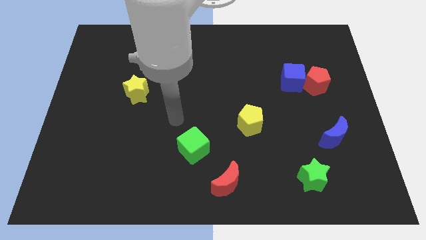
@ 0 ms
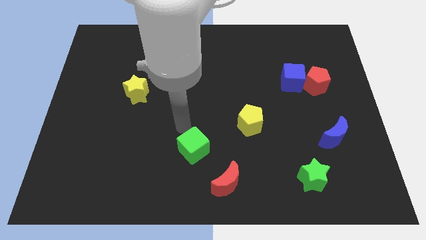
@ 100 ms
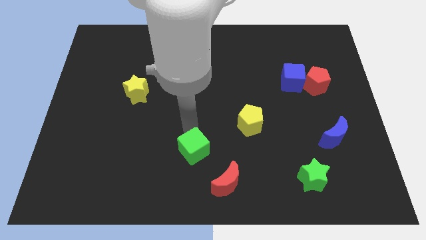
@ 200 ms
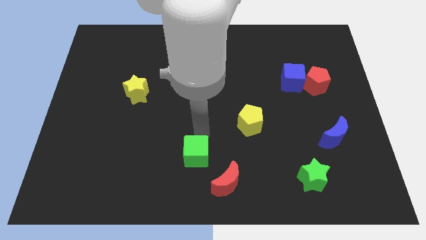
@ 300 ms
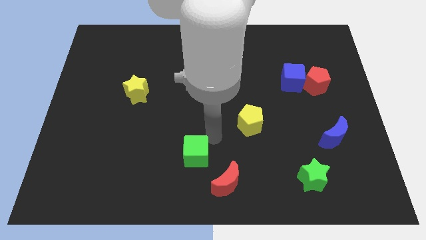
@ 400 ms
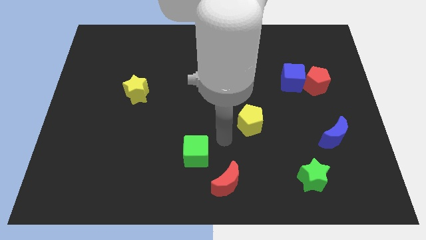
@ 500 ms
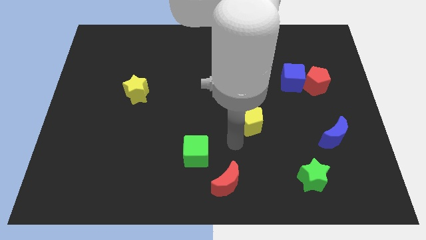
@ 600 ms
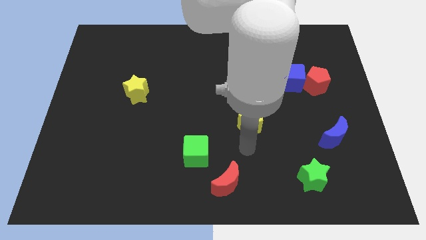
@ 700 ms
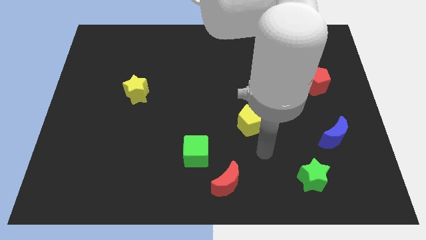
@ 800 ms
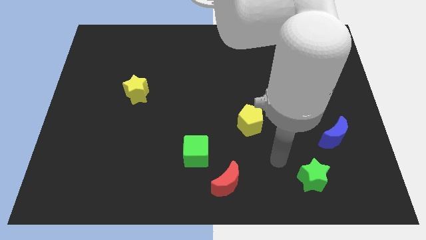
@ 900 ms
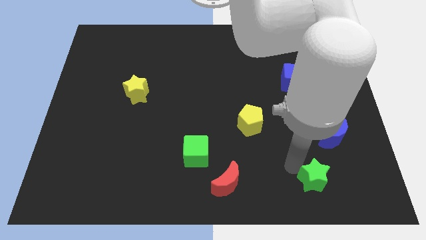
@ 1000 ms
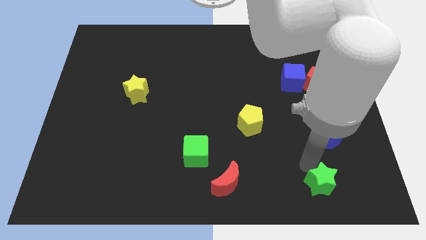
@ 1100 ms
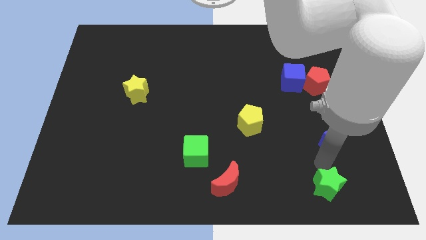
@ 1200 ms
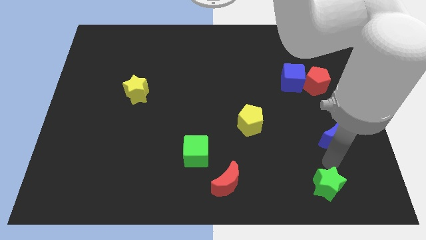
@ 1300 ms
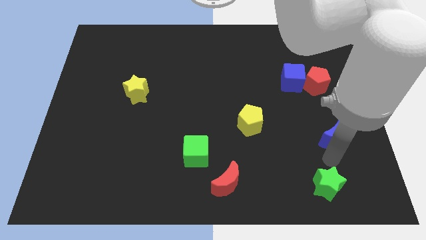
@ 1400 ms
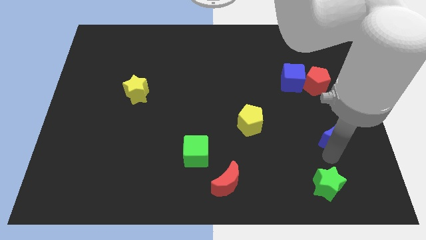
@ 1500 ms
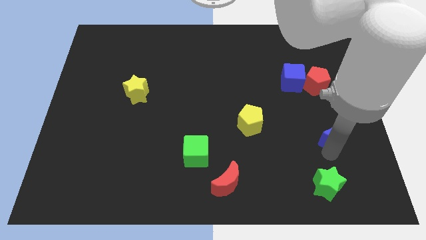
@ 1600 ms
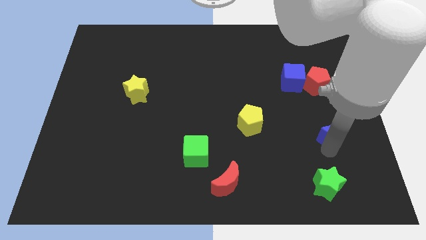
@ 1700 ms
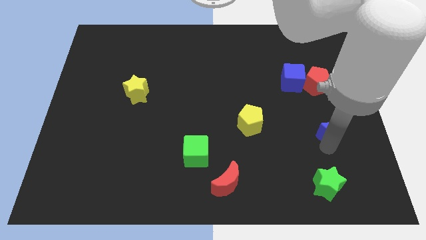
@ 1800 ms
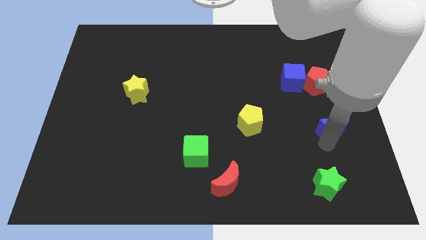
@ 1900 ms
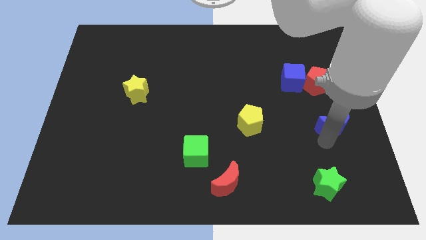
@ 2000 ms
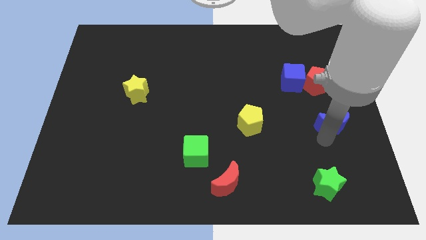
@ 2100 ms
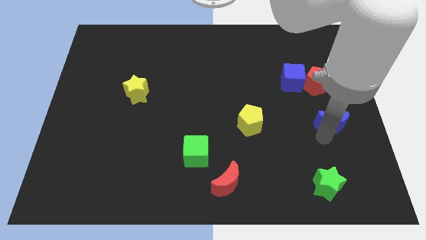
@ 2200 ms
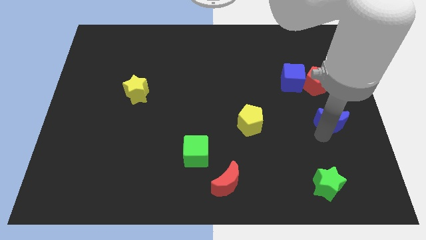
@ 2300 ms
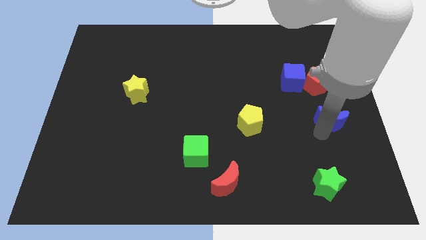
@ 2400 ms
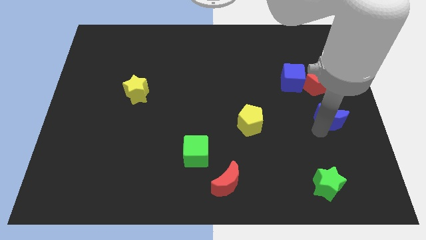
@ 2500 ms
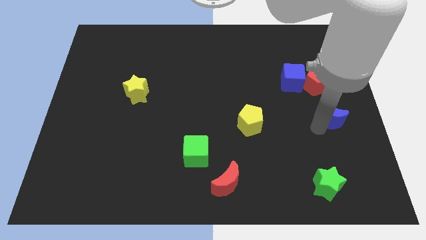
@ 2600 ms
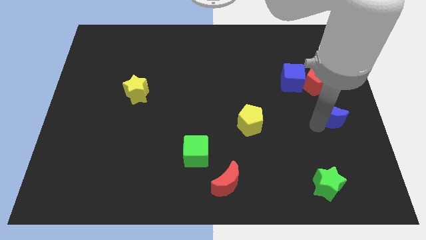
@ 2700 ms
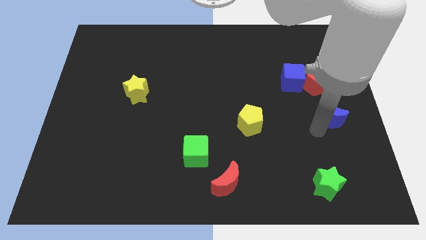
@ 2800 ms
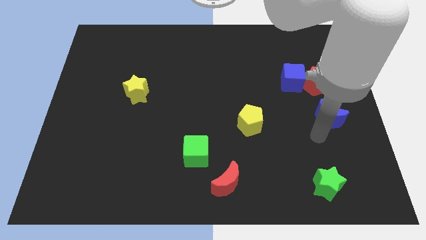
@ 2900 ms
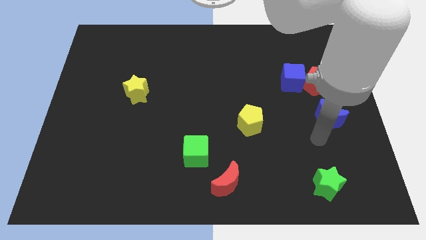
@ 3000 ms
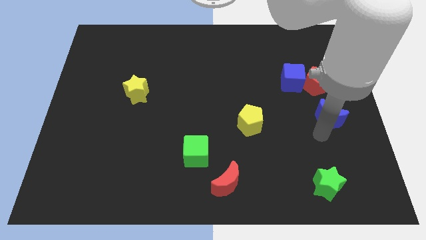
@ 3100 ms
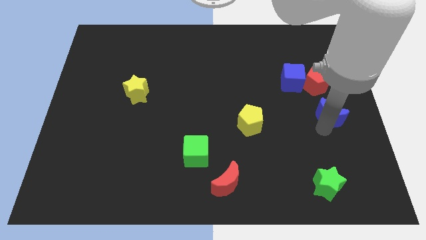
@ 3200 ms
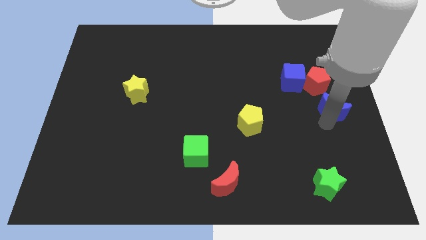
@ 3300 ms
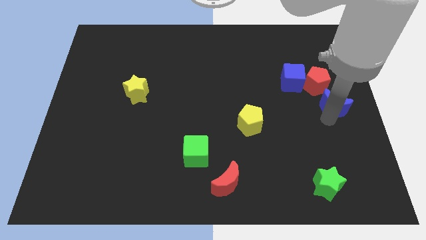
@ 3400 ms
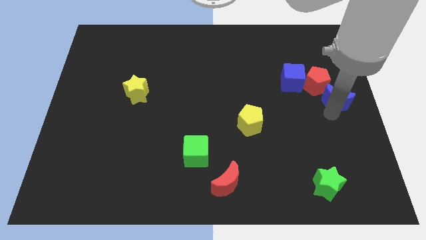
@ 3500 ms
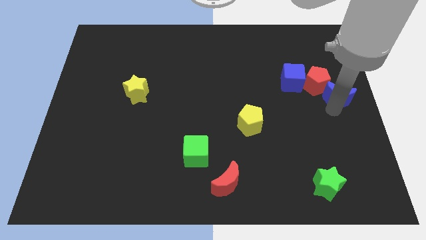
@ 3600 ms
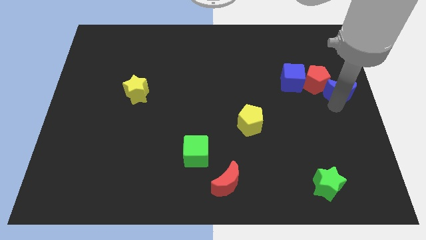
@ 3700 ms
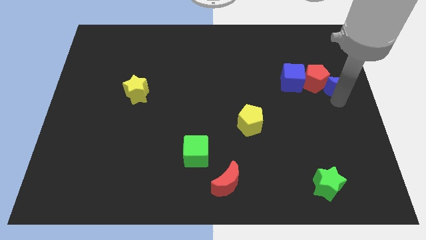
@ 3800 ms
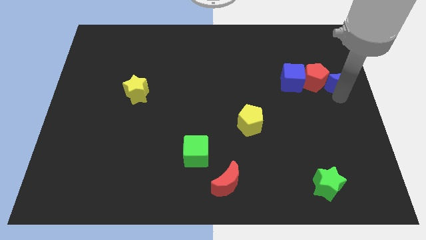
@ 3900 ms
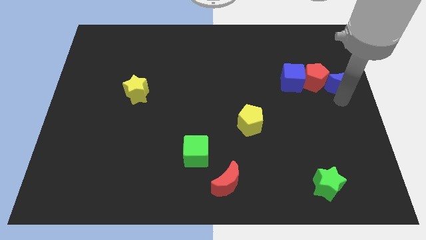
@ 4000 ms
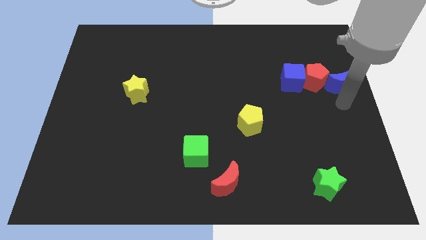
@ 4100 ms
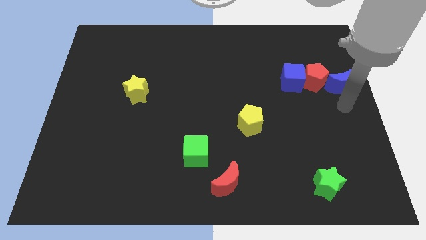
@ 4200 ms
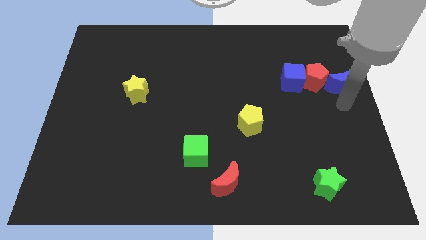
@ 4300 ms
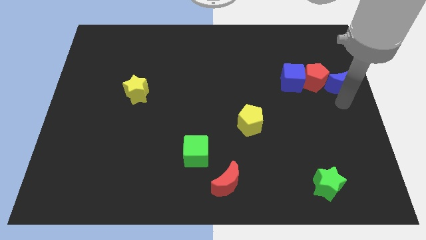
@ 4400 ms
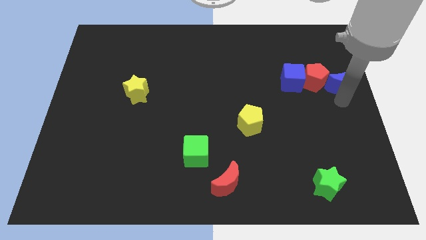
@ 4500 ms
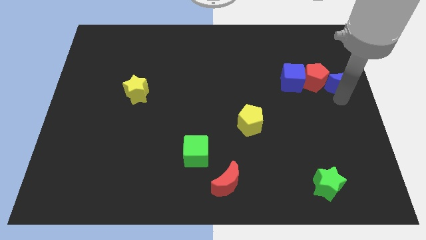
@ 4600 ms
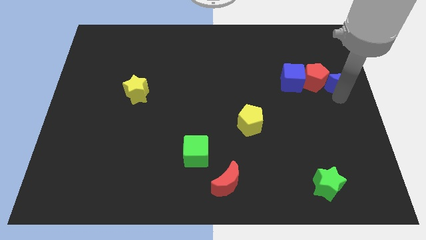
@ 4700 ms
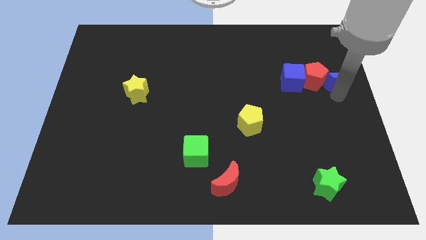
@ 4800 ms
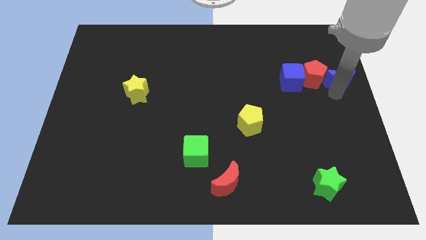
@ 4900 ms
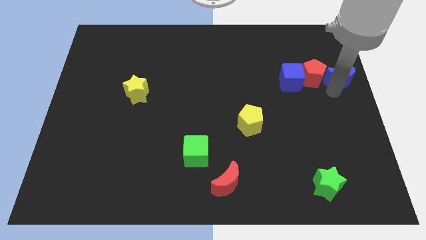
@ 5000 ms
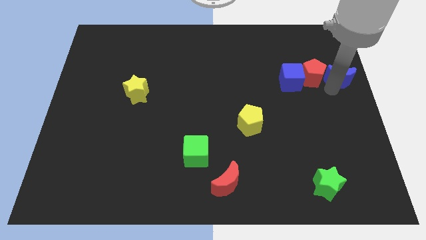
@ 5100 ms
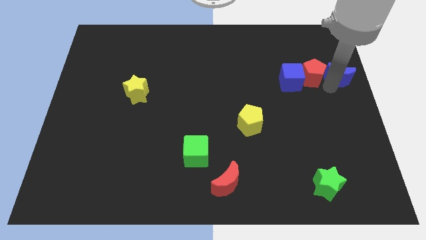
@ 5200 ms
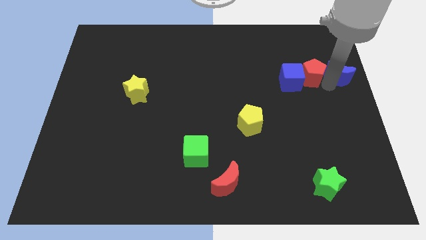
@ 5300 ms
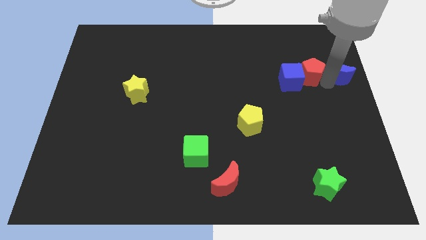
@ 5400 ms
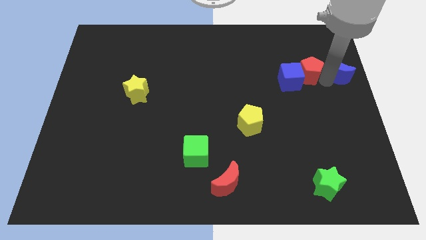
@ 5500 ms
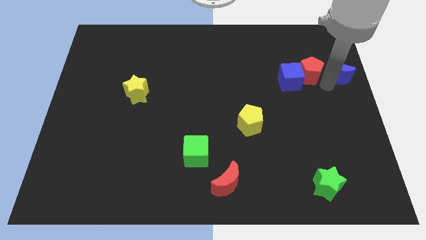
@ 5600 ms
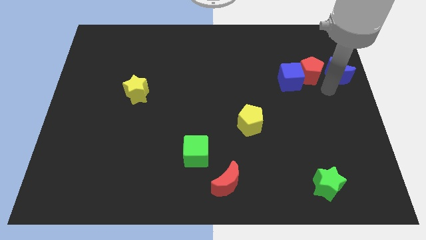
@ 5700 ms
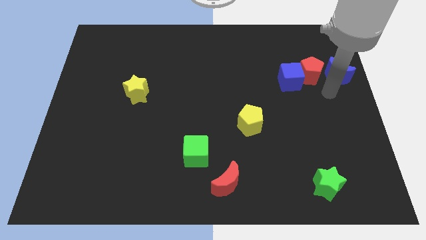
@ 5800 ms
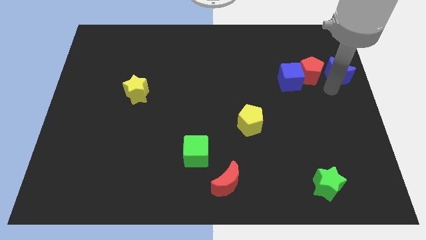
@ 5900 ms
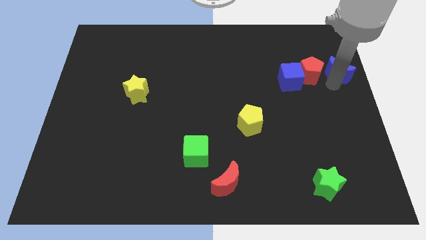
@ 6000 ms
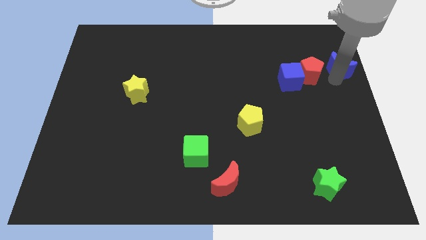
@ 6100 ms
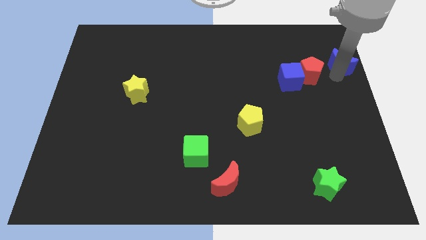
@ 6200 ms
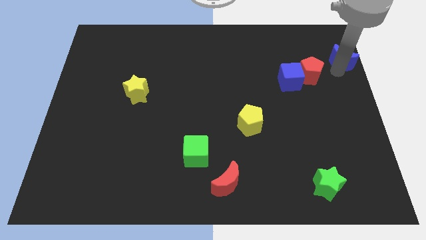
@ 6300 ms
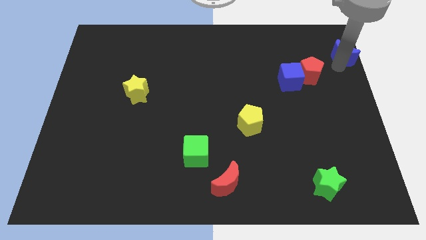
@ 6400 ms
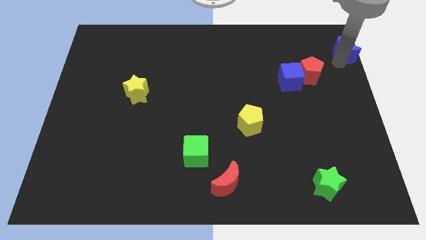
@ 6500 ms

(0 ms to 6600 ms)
slide the blue moon to the top right of the board
